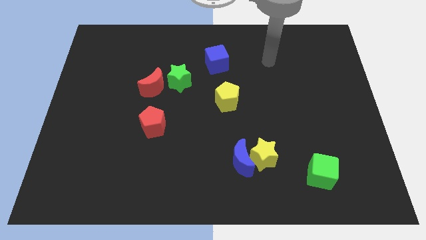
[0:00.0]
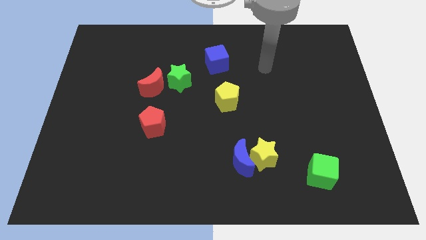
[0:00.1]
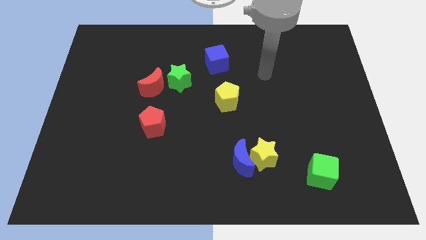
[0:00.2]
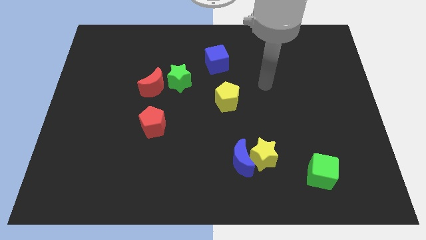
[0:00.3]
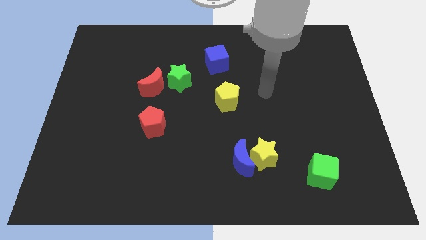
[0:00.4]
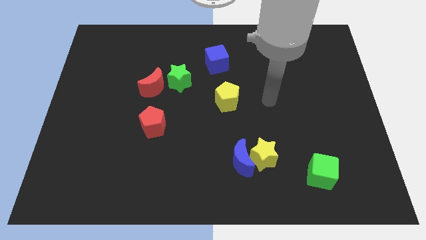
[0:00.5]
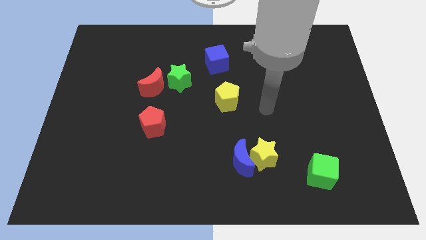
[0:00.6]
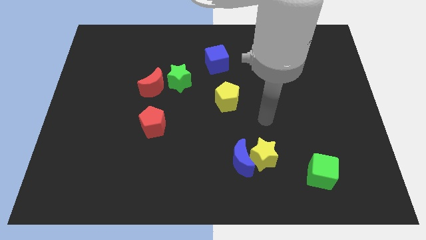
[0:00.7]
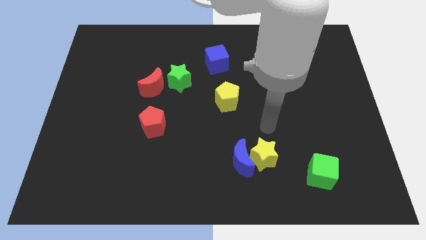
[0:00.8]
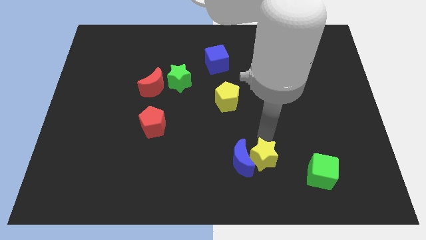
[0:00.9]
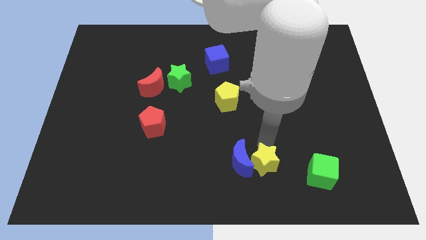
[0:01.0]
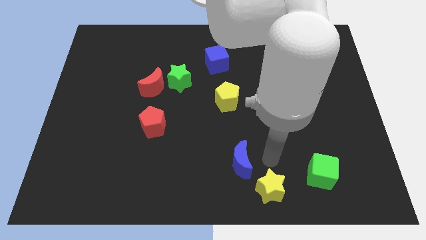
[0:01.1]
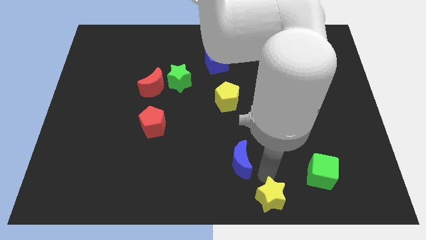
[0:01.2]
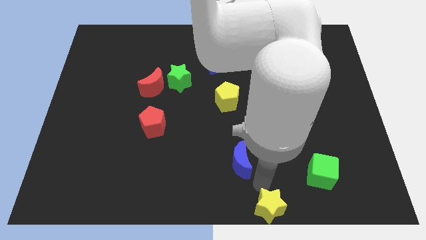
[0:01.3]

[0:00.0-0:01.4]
pull the blue moon apart from the yellow star

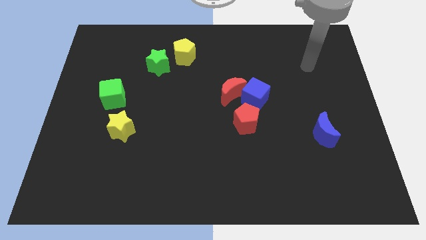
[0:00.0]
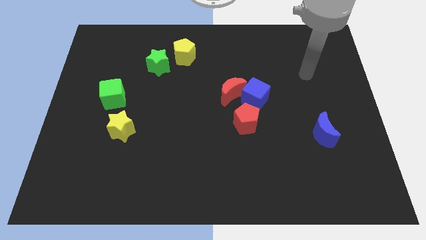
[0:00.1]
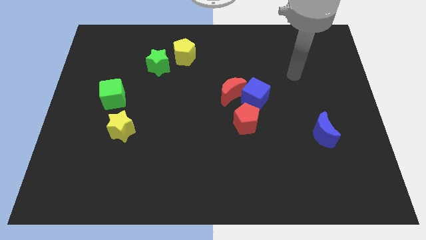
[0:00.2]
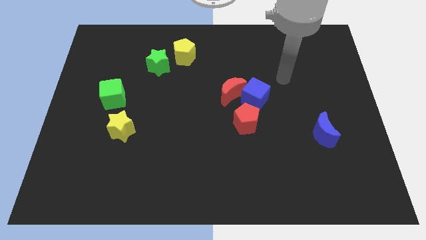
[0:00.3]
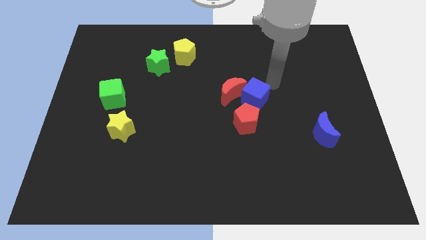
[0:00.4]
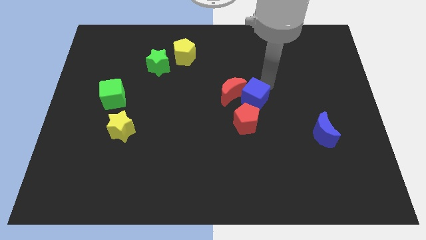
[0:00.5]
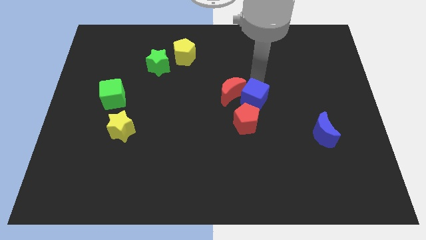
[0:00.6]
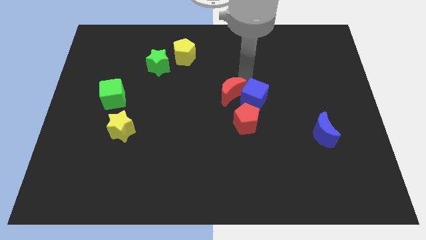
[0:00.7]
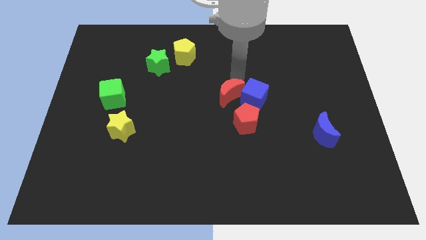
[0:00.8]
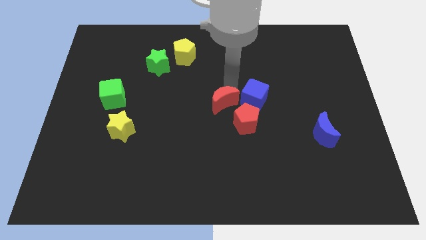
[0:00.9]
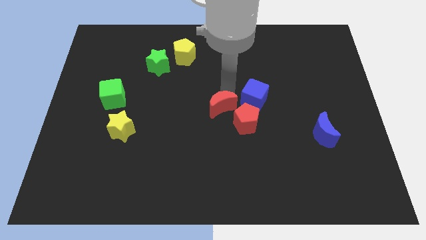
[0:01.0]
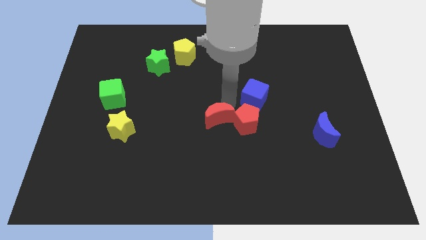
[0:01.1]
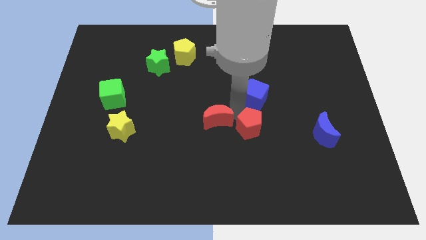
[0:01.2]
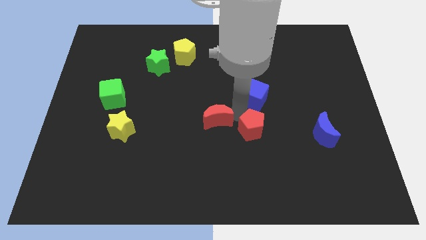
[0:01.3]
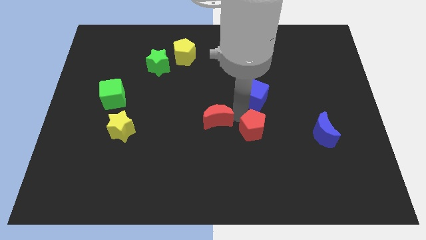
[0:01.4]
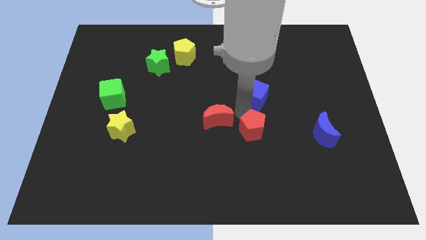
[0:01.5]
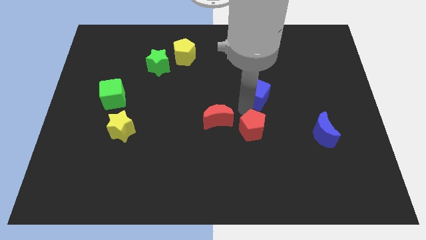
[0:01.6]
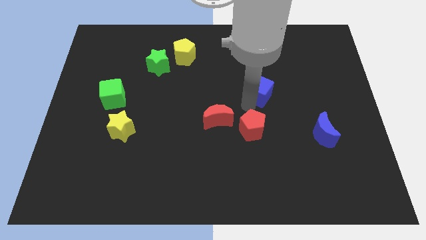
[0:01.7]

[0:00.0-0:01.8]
separate the blue cube from the red moon and red pentagon

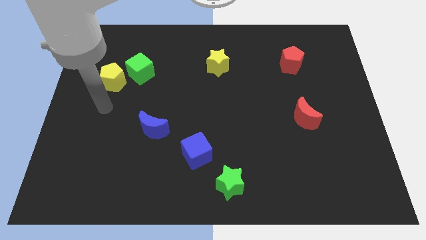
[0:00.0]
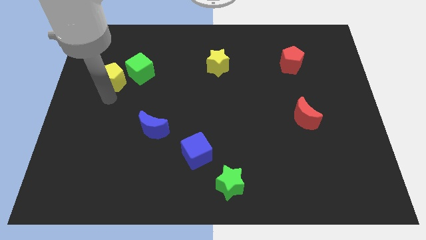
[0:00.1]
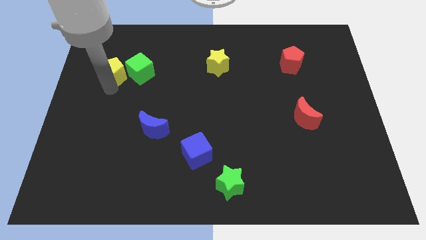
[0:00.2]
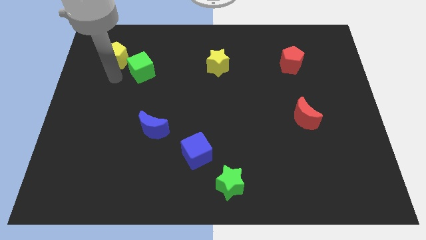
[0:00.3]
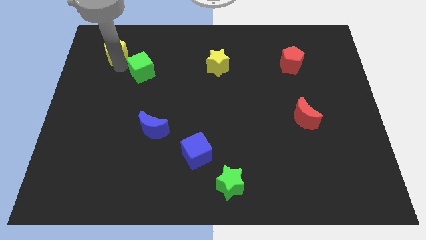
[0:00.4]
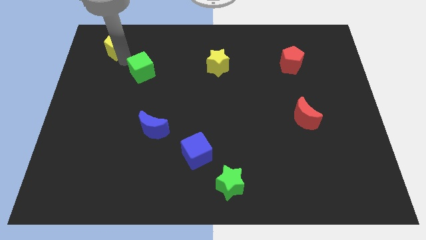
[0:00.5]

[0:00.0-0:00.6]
pull the green cube apart from the yellow pentagon

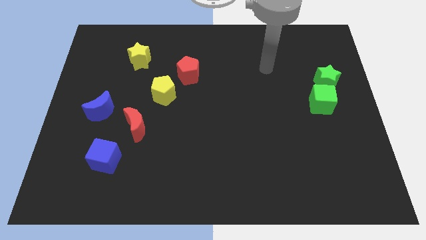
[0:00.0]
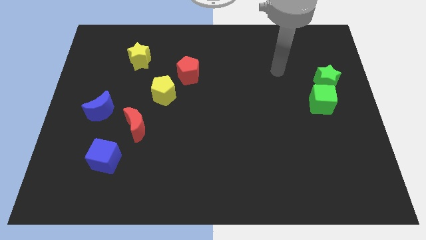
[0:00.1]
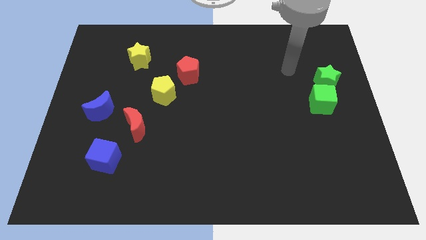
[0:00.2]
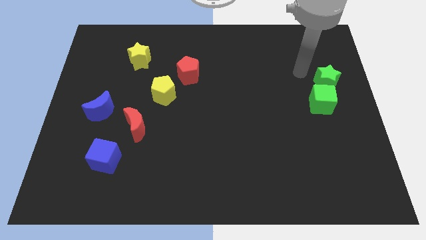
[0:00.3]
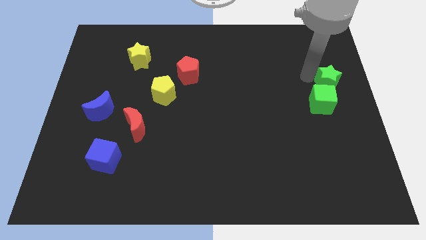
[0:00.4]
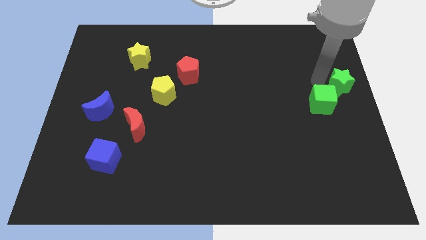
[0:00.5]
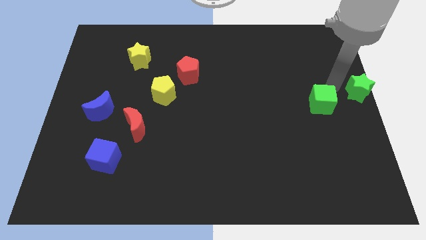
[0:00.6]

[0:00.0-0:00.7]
move the green cube away from the green star

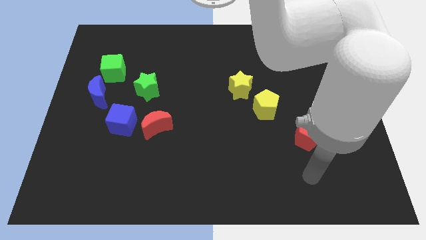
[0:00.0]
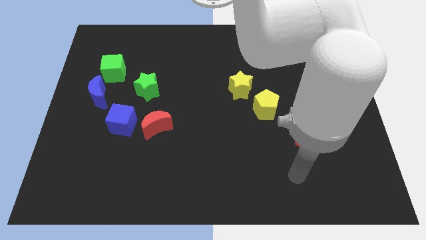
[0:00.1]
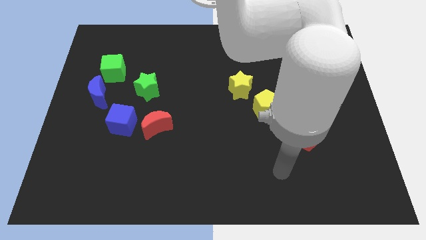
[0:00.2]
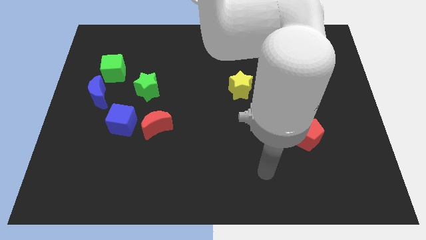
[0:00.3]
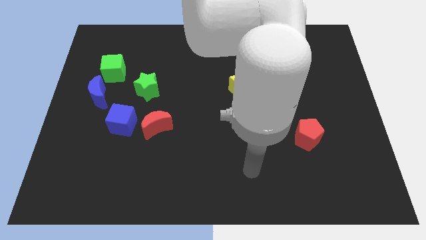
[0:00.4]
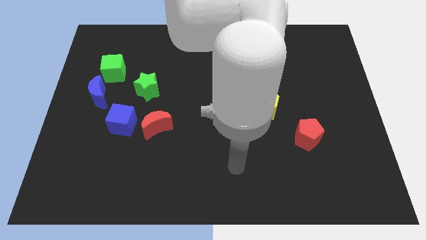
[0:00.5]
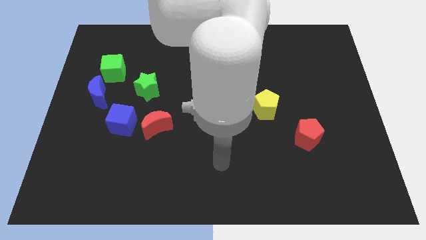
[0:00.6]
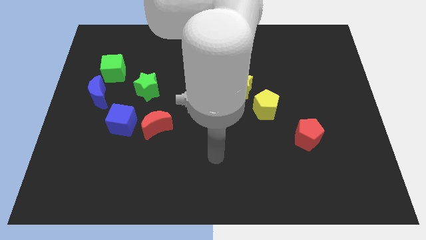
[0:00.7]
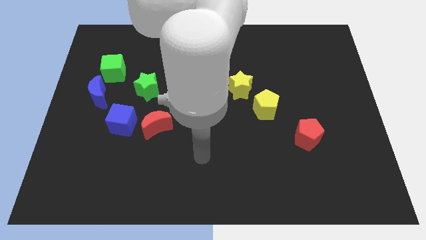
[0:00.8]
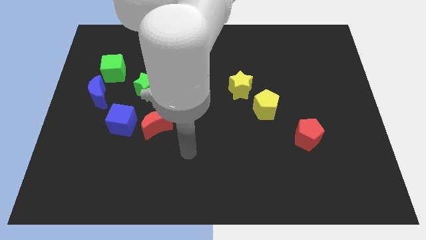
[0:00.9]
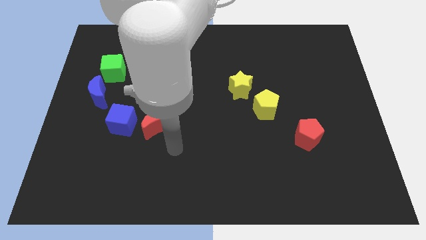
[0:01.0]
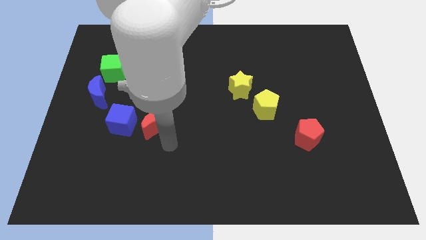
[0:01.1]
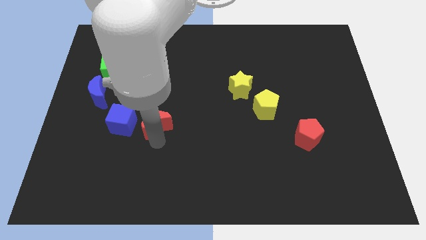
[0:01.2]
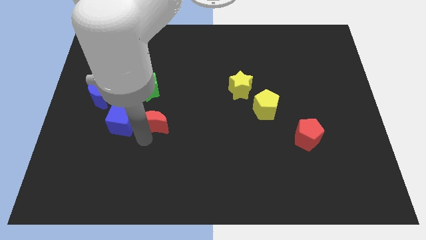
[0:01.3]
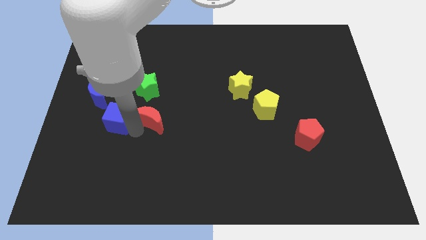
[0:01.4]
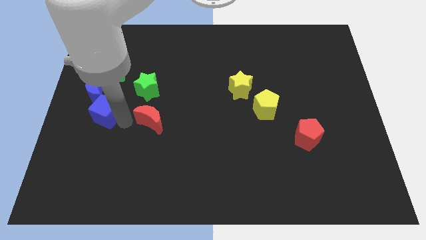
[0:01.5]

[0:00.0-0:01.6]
pull the red moon apart from the blue cube

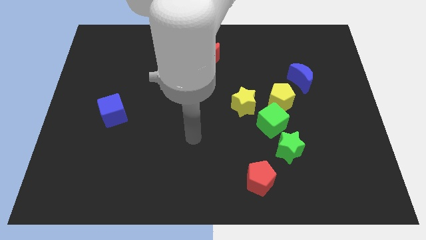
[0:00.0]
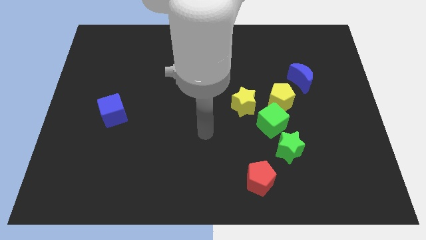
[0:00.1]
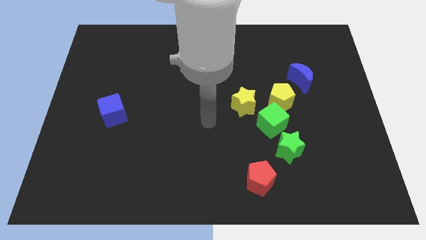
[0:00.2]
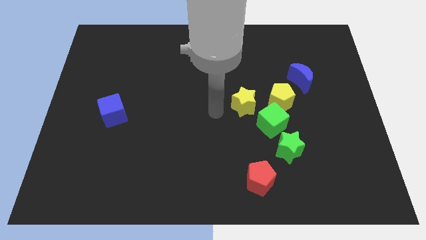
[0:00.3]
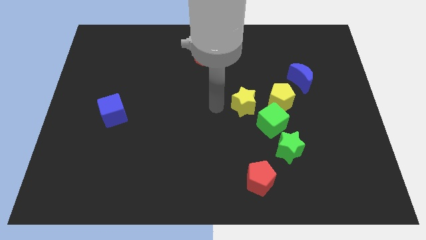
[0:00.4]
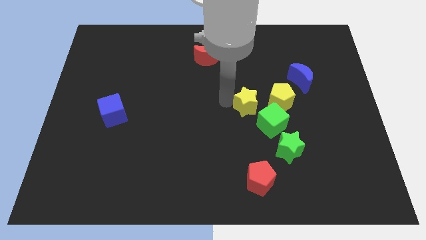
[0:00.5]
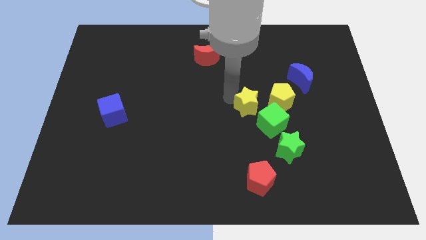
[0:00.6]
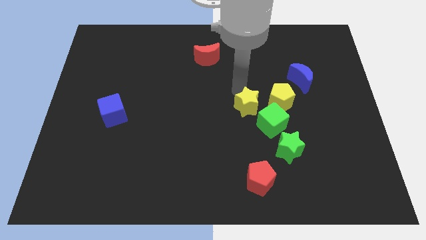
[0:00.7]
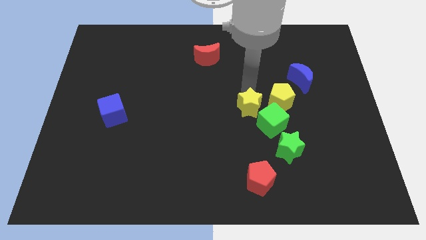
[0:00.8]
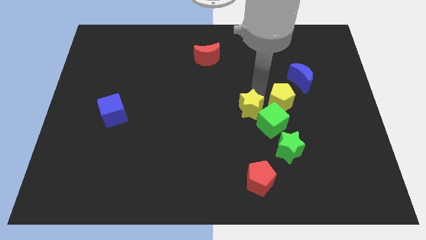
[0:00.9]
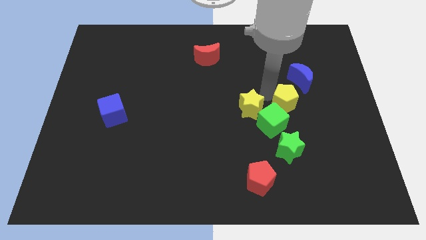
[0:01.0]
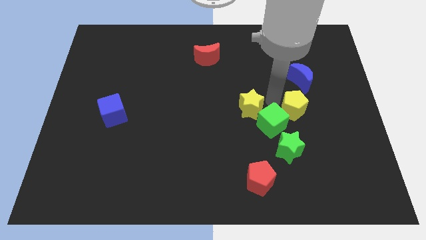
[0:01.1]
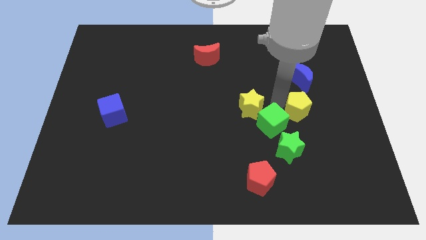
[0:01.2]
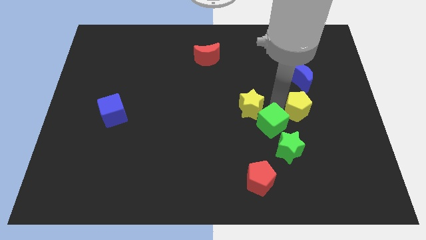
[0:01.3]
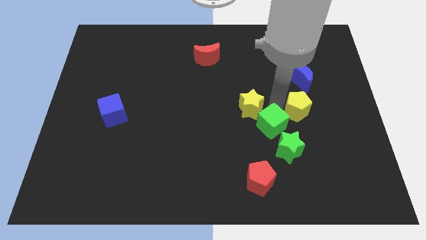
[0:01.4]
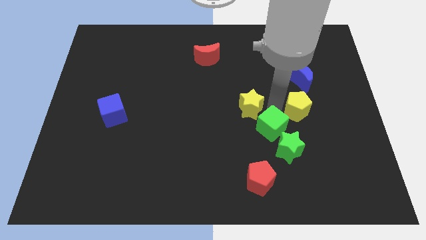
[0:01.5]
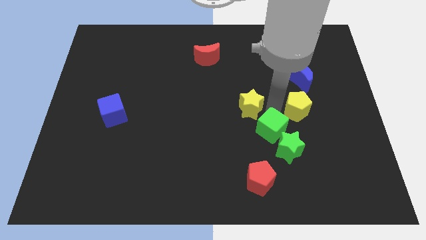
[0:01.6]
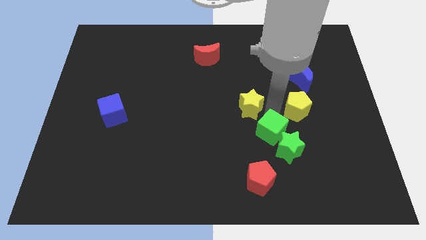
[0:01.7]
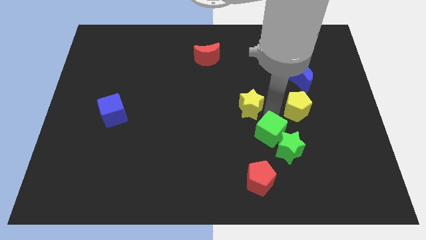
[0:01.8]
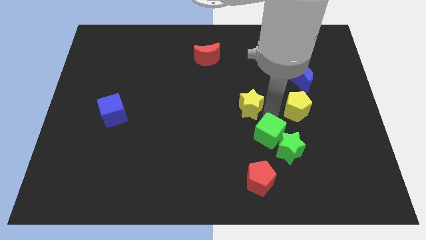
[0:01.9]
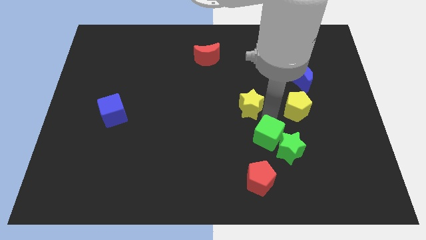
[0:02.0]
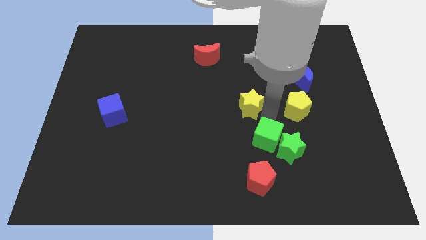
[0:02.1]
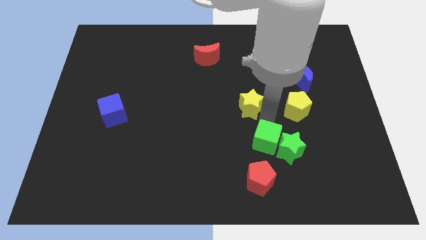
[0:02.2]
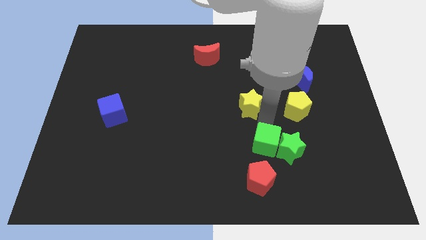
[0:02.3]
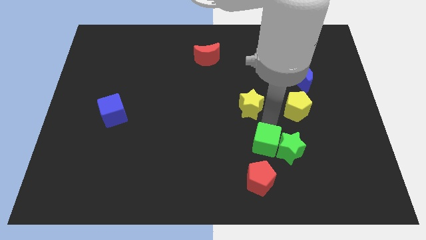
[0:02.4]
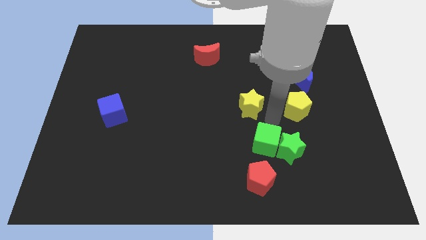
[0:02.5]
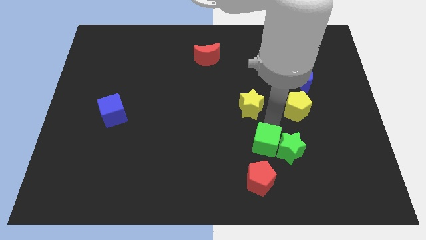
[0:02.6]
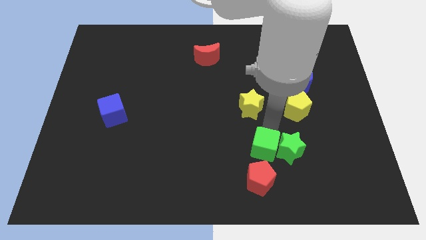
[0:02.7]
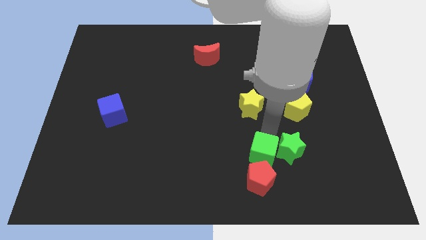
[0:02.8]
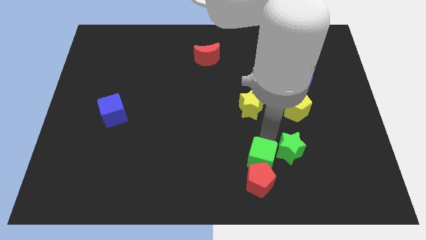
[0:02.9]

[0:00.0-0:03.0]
move the green cube away from the clump

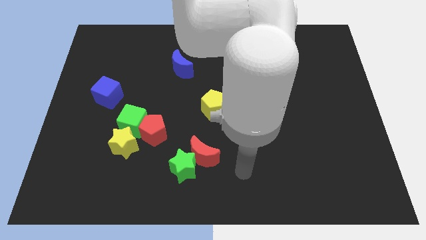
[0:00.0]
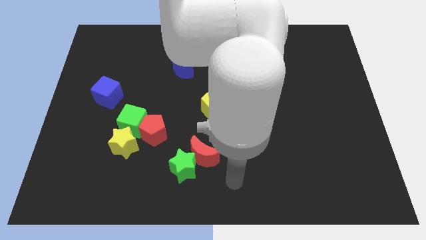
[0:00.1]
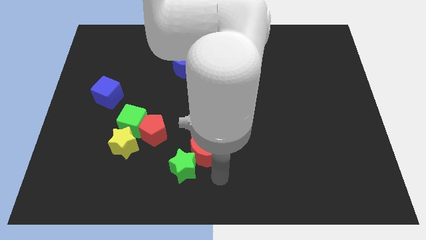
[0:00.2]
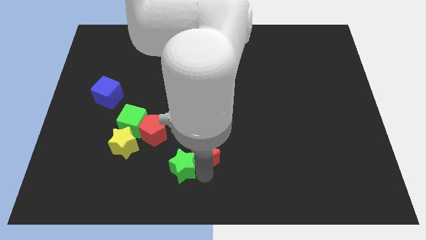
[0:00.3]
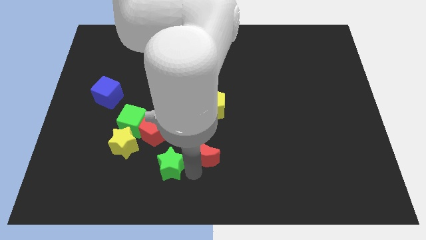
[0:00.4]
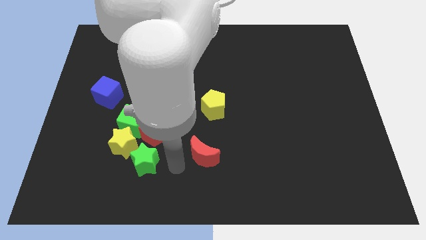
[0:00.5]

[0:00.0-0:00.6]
move the red moon away from the green star
